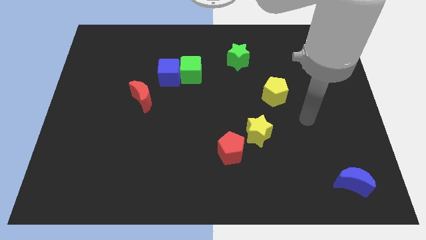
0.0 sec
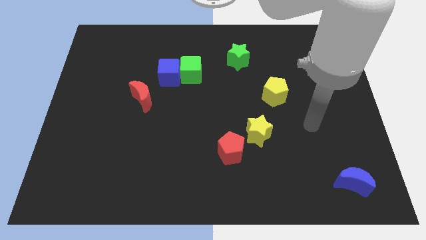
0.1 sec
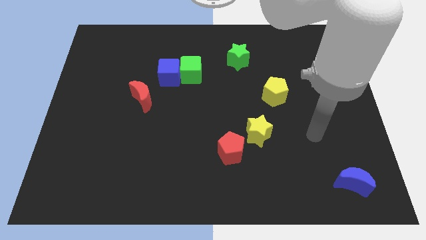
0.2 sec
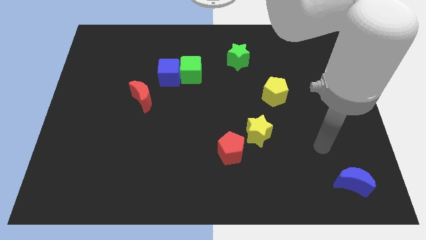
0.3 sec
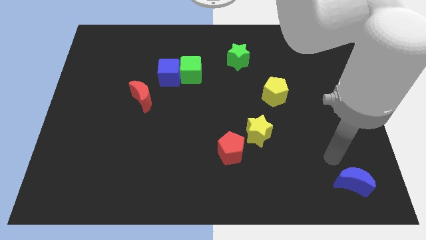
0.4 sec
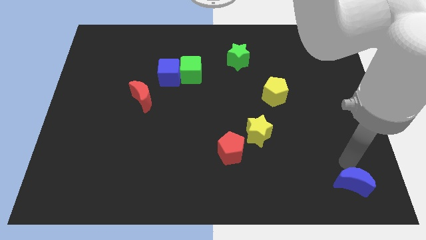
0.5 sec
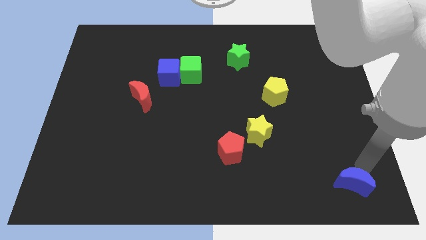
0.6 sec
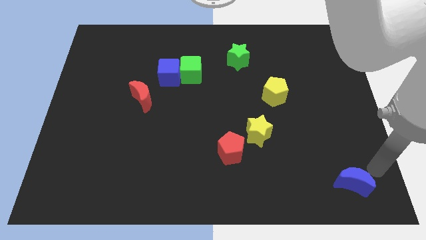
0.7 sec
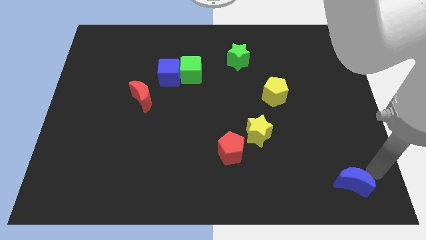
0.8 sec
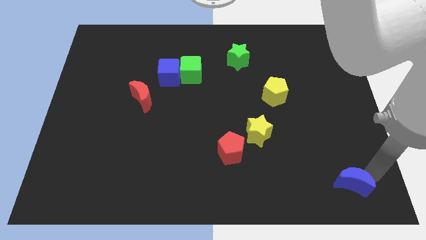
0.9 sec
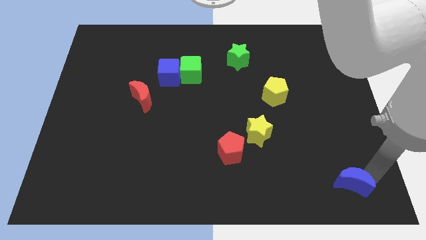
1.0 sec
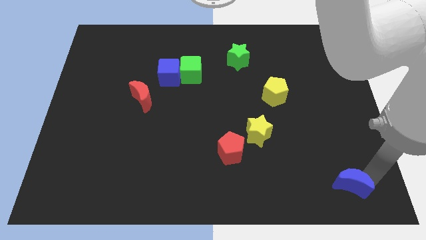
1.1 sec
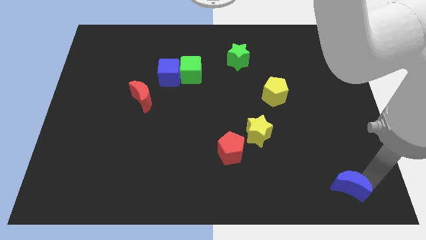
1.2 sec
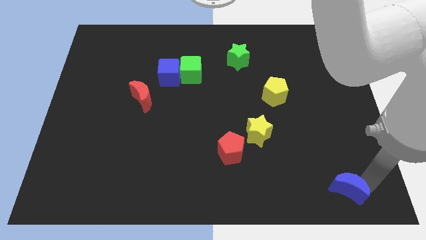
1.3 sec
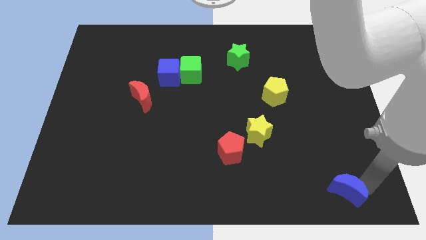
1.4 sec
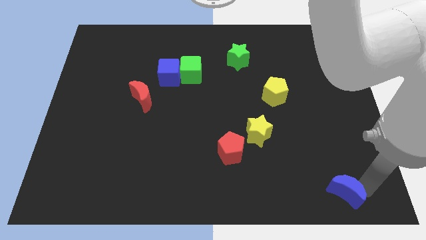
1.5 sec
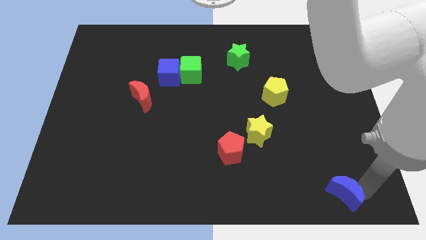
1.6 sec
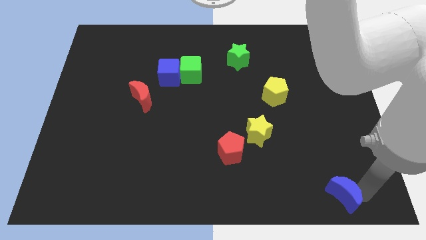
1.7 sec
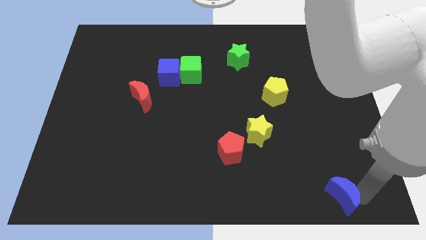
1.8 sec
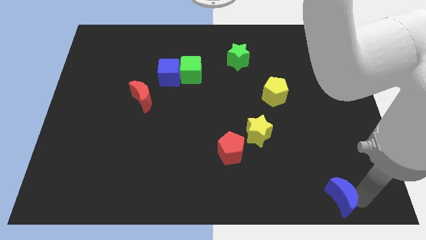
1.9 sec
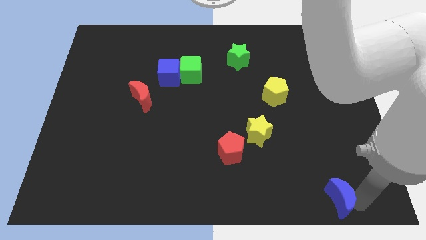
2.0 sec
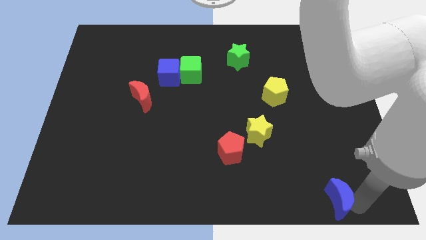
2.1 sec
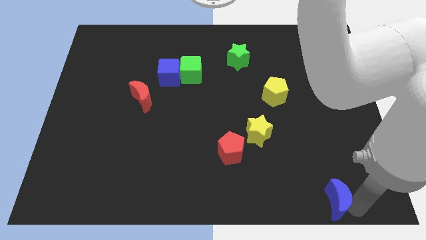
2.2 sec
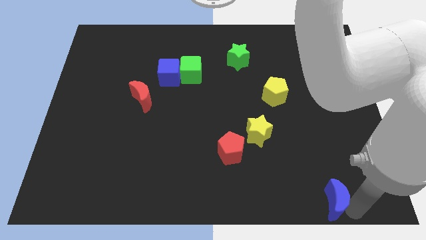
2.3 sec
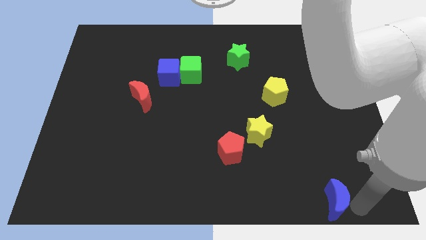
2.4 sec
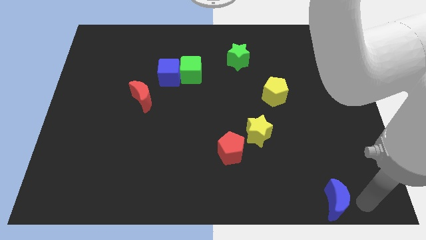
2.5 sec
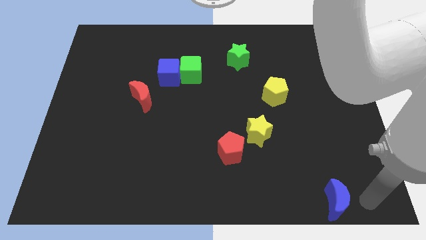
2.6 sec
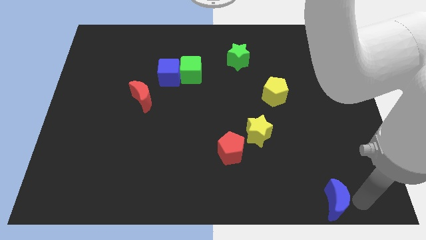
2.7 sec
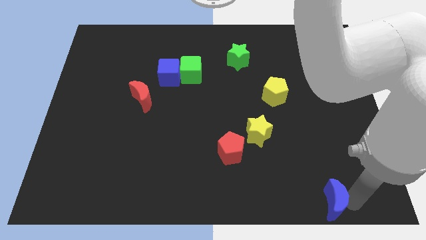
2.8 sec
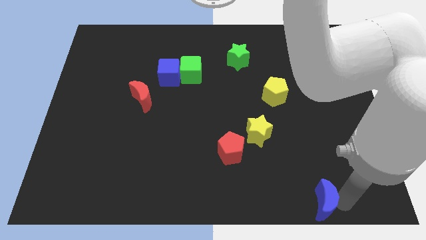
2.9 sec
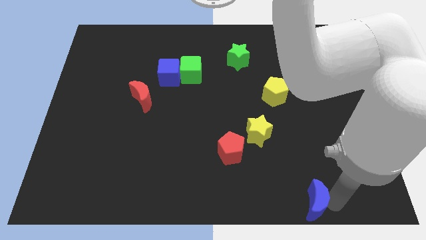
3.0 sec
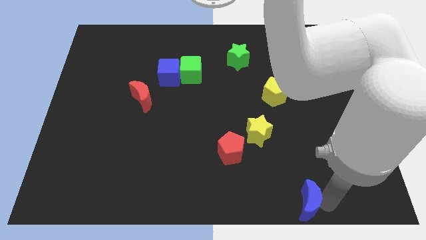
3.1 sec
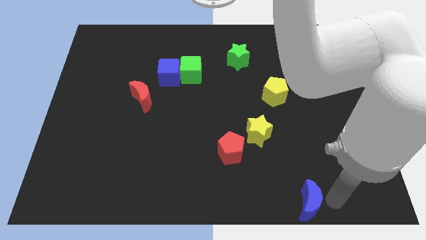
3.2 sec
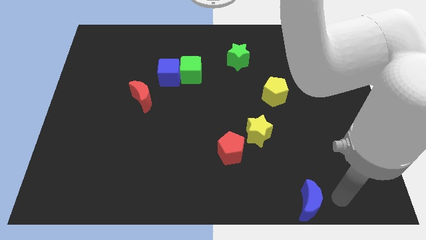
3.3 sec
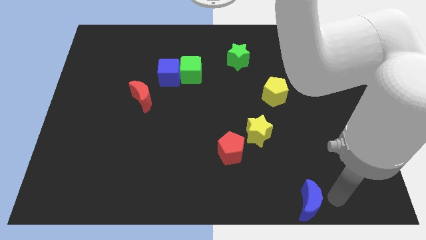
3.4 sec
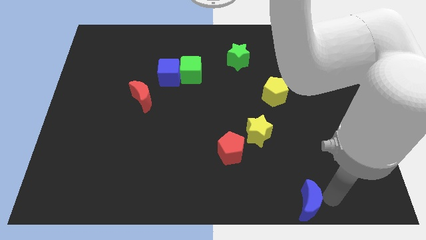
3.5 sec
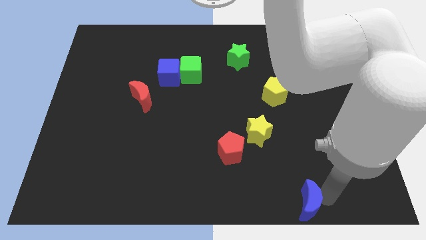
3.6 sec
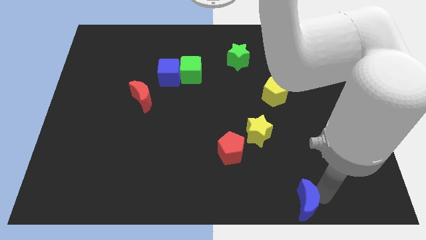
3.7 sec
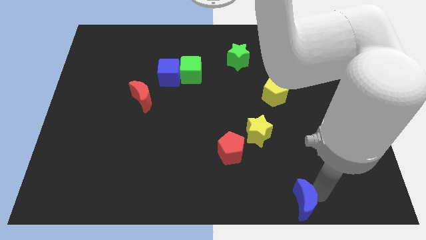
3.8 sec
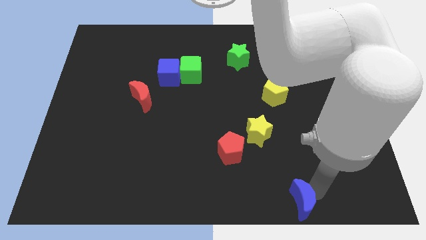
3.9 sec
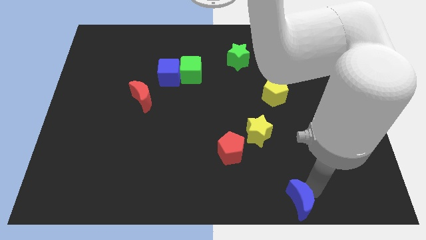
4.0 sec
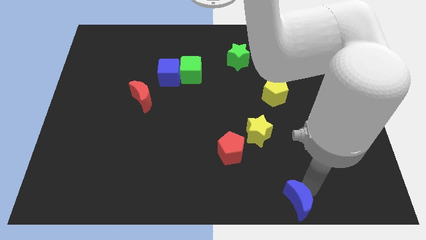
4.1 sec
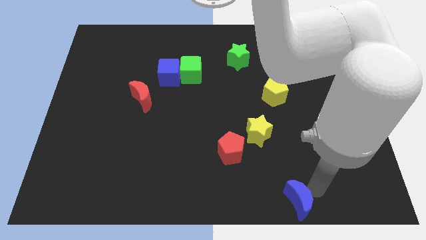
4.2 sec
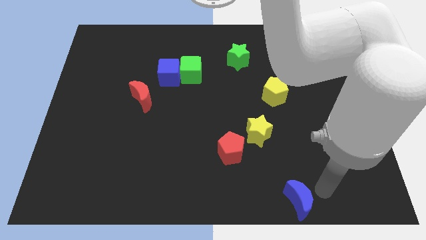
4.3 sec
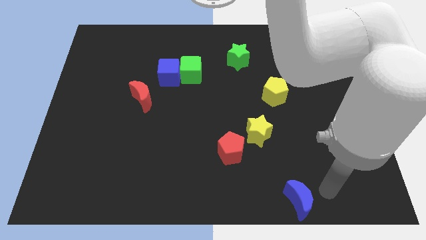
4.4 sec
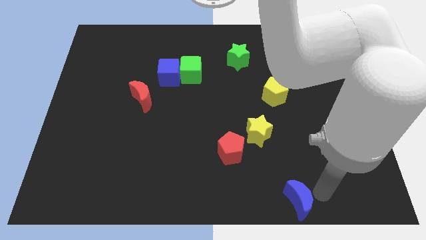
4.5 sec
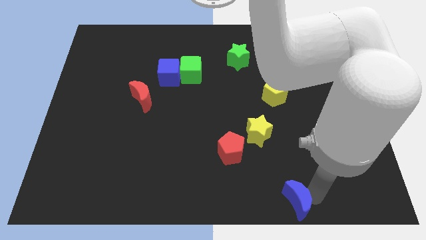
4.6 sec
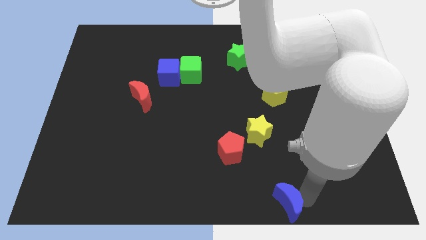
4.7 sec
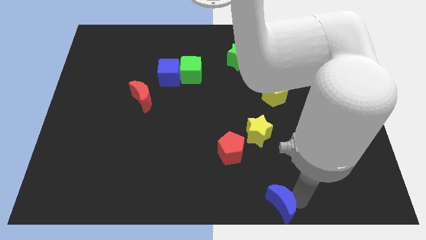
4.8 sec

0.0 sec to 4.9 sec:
move the blue moon to the bottom

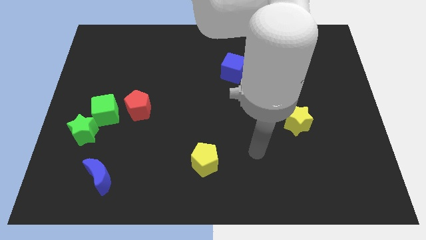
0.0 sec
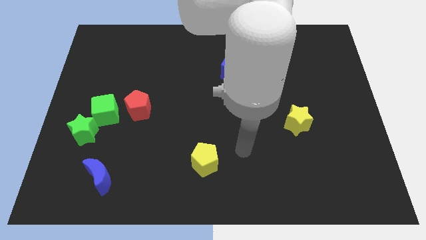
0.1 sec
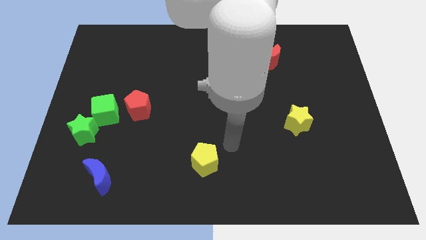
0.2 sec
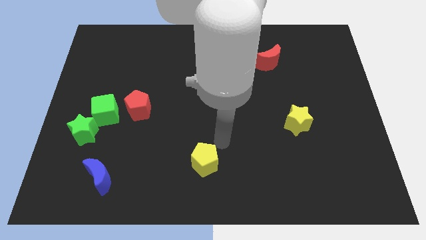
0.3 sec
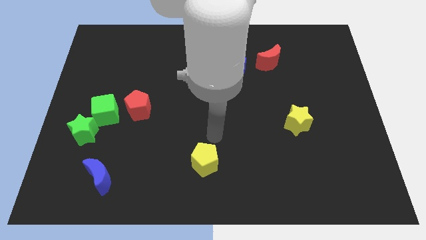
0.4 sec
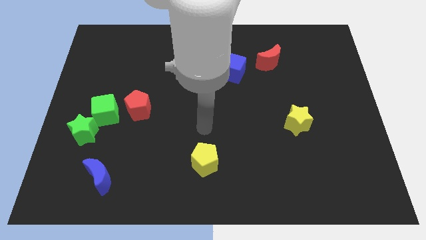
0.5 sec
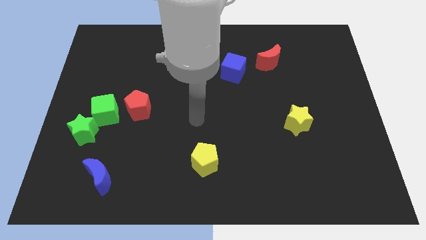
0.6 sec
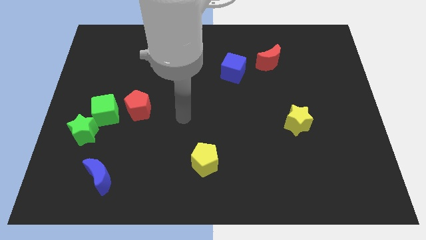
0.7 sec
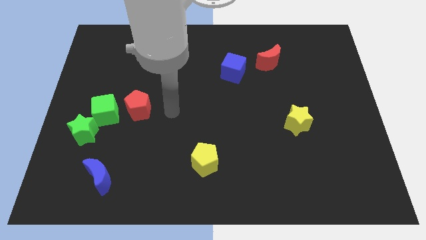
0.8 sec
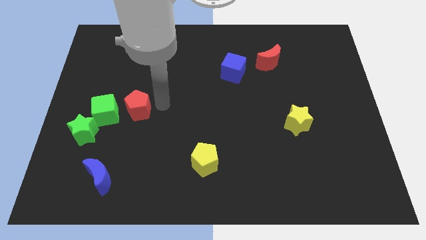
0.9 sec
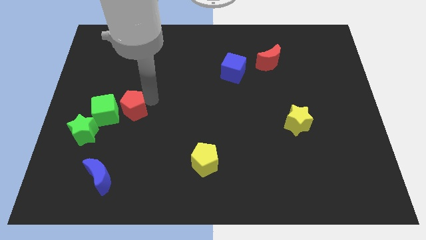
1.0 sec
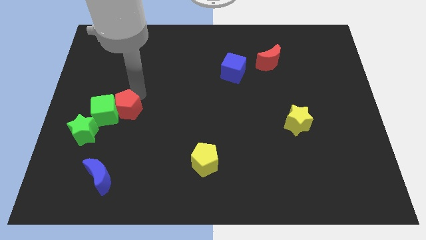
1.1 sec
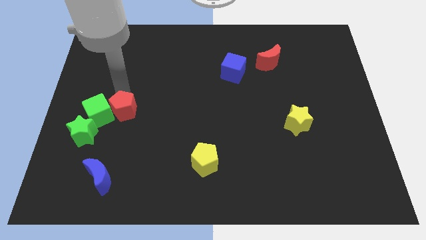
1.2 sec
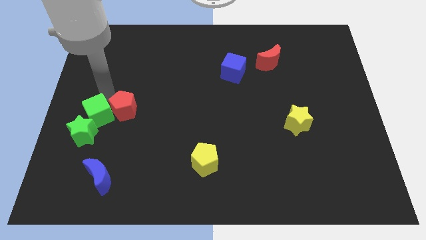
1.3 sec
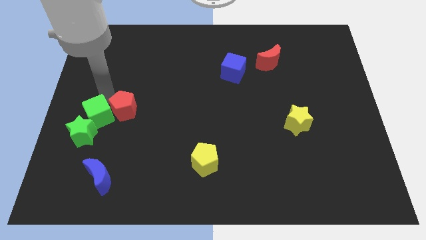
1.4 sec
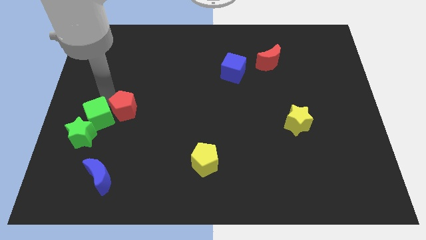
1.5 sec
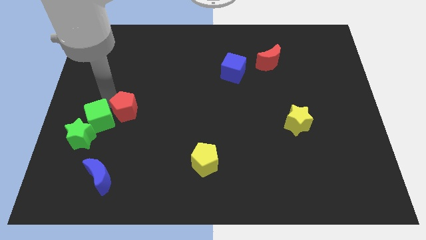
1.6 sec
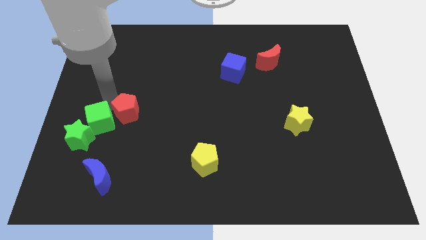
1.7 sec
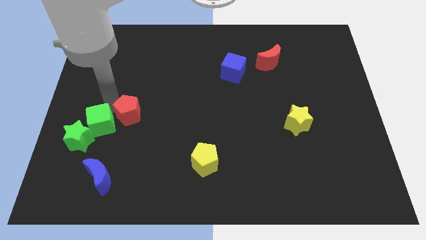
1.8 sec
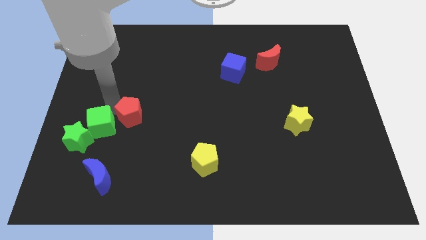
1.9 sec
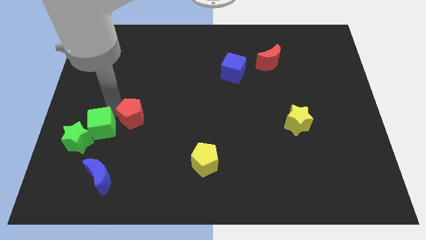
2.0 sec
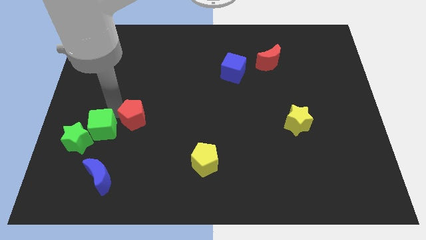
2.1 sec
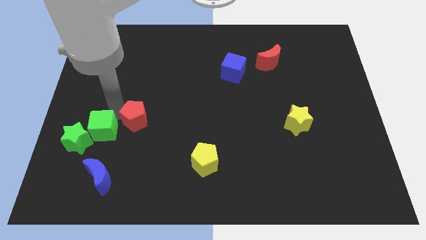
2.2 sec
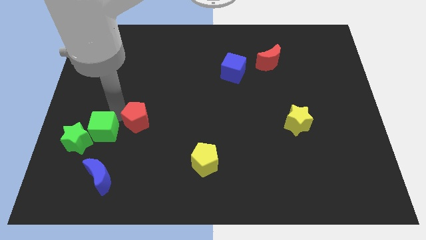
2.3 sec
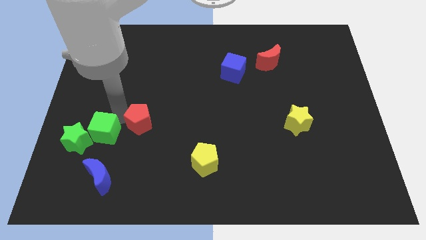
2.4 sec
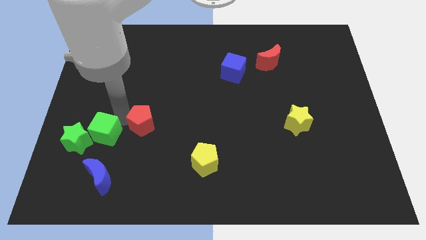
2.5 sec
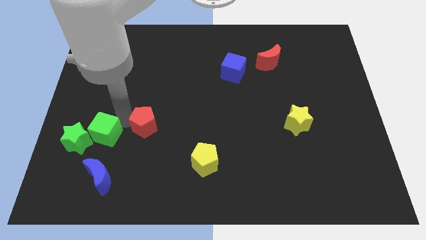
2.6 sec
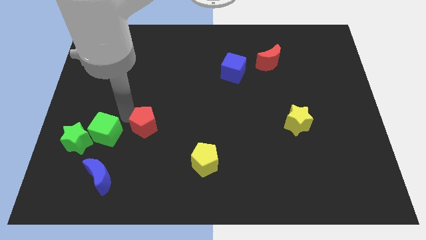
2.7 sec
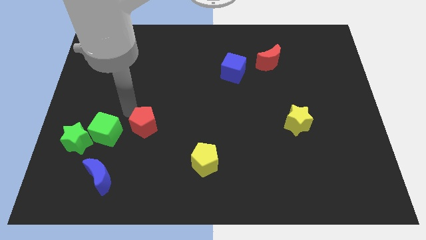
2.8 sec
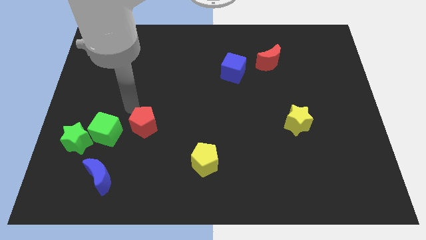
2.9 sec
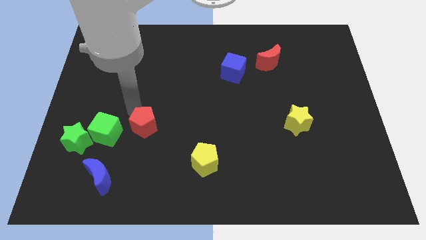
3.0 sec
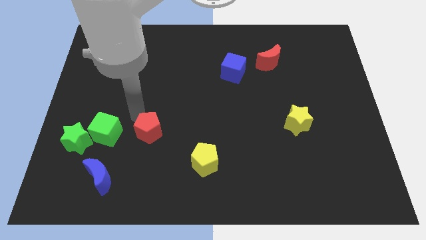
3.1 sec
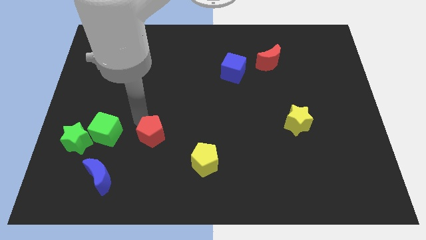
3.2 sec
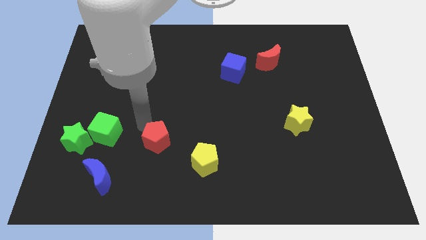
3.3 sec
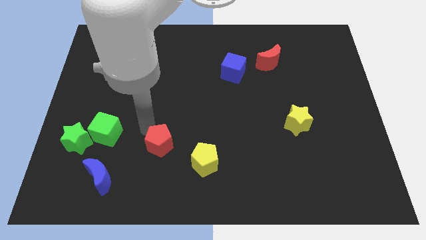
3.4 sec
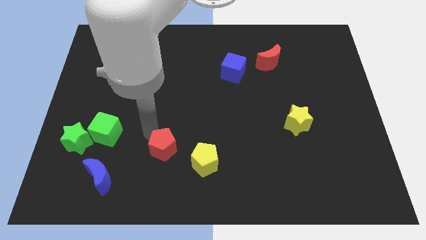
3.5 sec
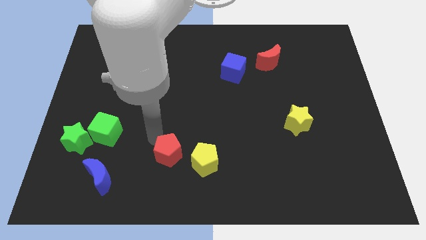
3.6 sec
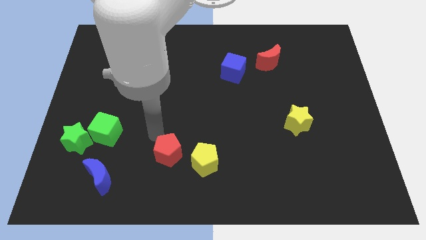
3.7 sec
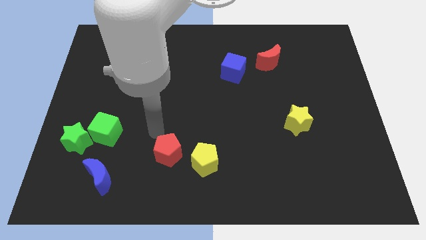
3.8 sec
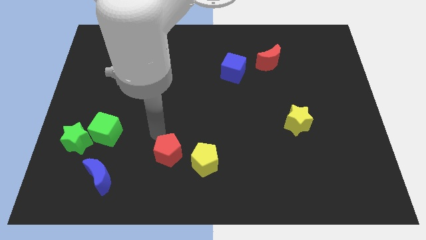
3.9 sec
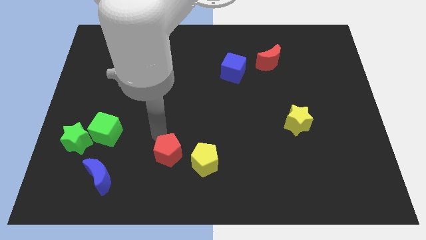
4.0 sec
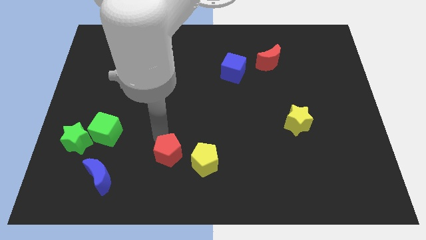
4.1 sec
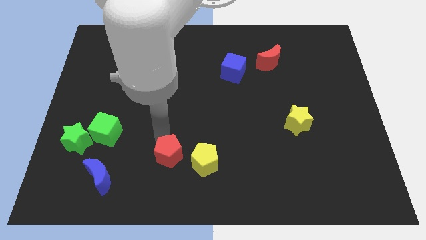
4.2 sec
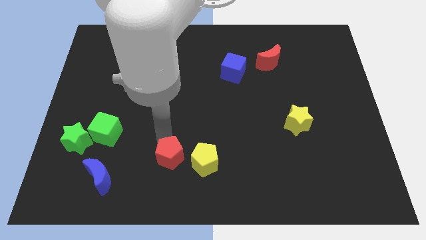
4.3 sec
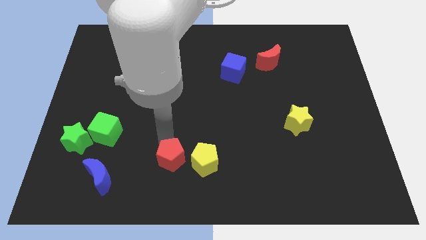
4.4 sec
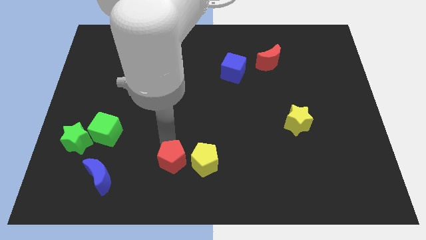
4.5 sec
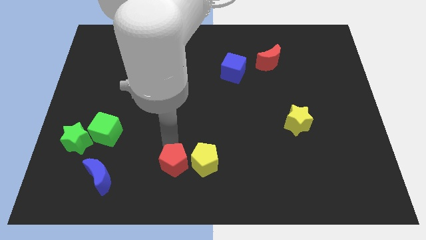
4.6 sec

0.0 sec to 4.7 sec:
push the red pentagon to the bottom side
